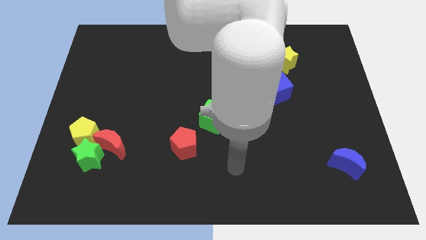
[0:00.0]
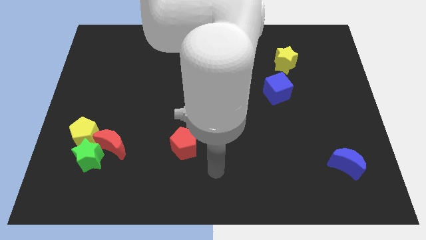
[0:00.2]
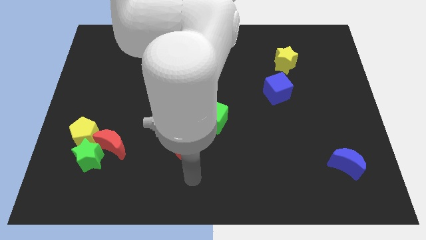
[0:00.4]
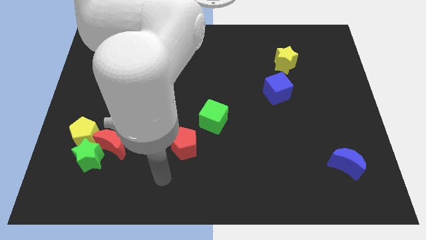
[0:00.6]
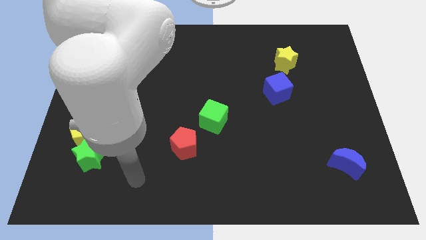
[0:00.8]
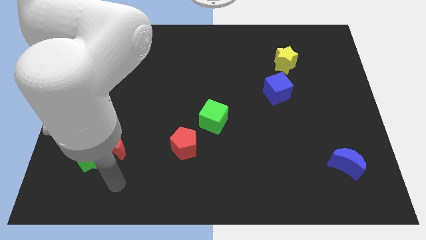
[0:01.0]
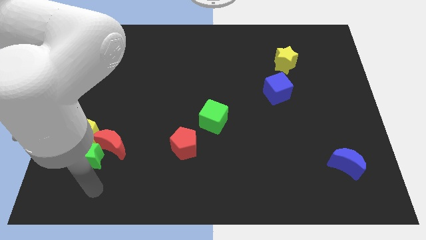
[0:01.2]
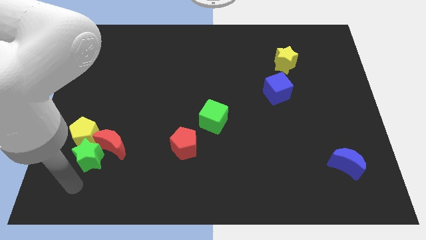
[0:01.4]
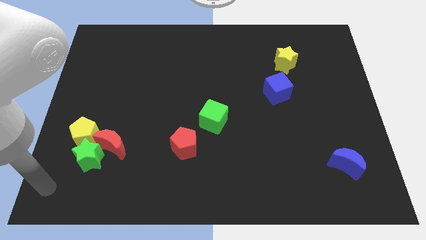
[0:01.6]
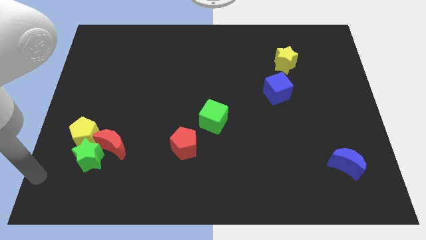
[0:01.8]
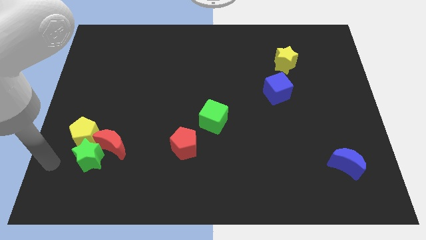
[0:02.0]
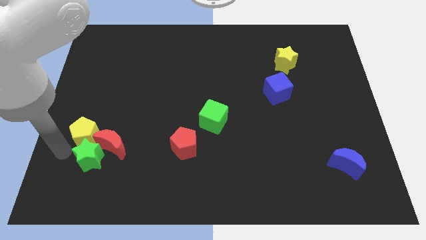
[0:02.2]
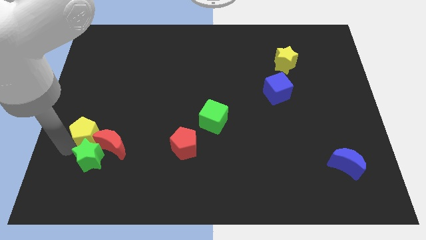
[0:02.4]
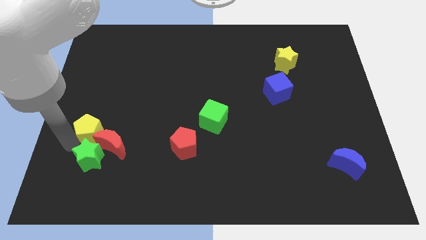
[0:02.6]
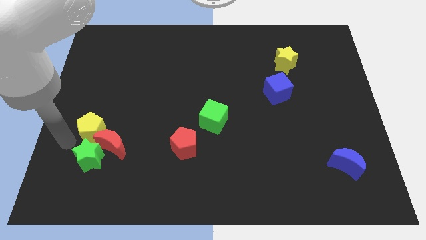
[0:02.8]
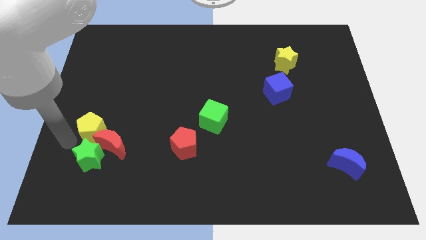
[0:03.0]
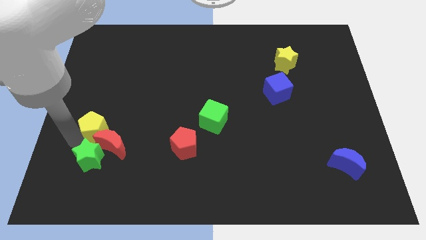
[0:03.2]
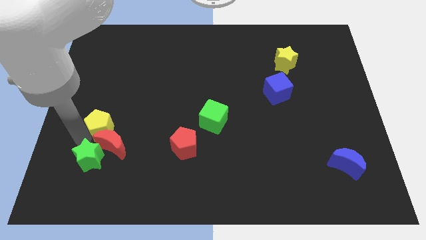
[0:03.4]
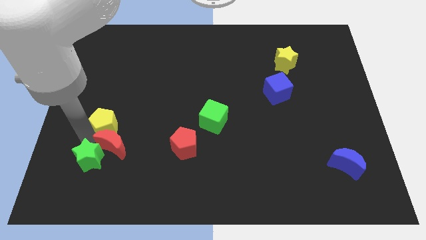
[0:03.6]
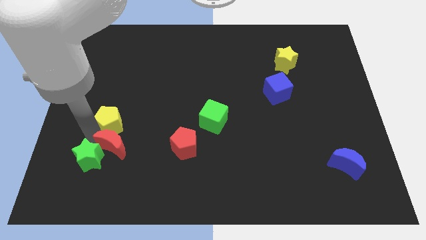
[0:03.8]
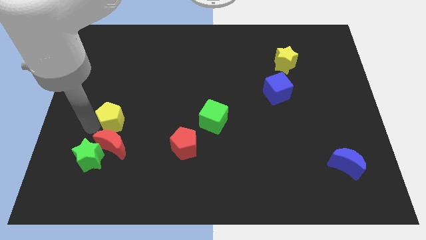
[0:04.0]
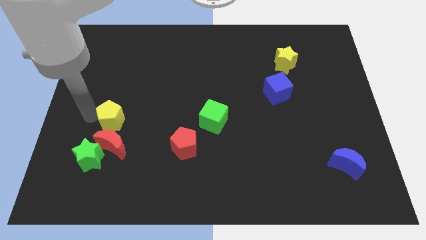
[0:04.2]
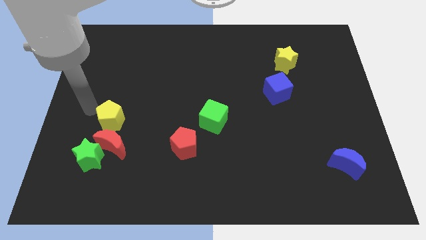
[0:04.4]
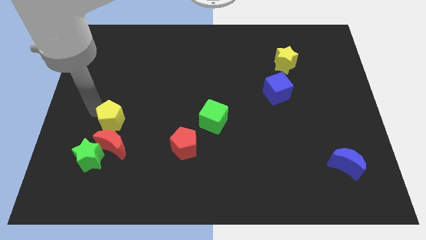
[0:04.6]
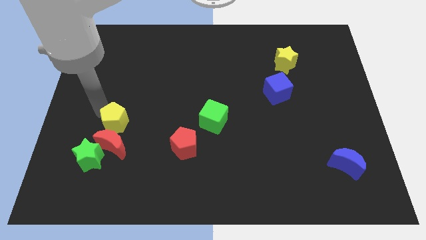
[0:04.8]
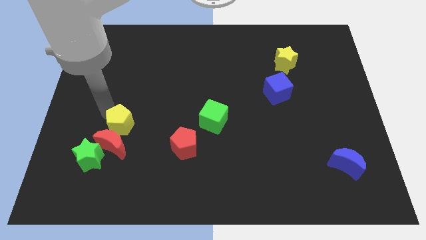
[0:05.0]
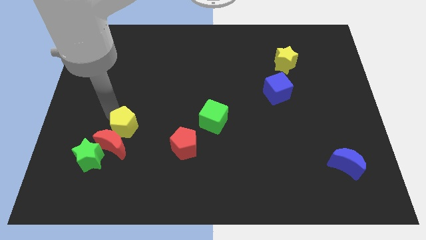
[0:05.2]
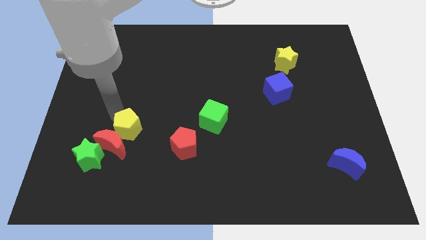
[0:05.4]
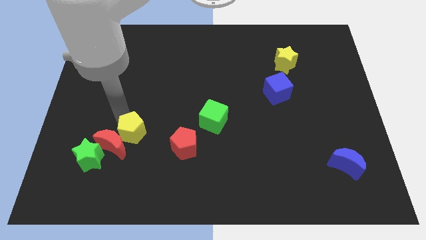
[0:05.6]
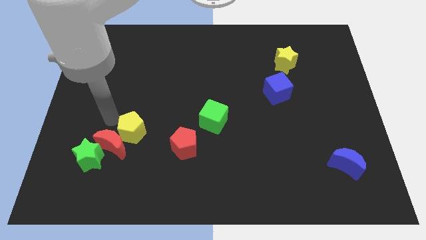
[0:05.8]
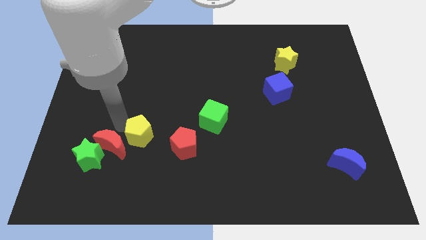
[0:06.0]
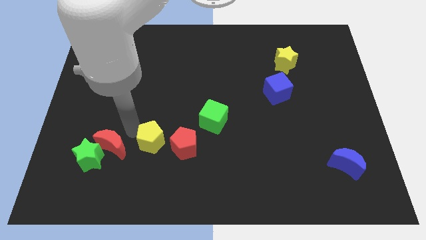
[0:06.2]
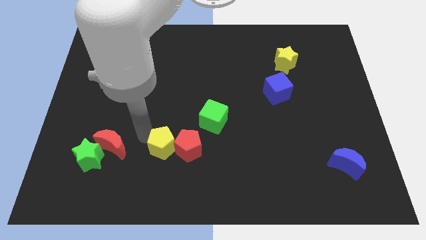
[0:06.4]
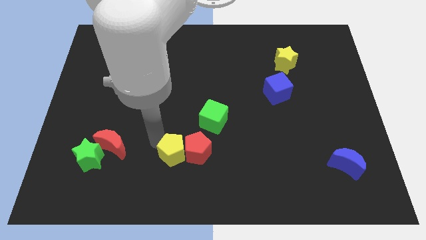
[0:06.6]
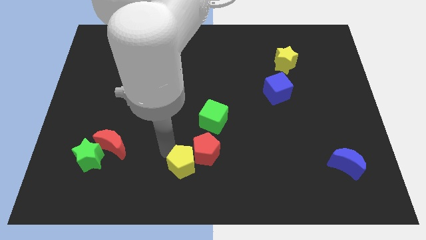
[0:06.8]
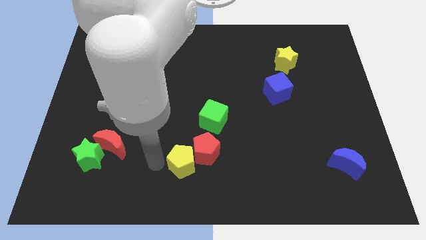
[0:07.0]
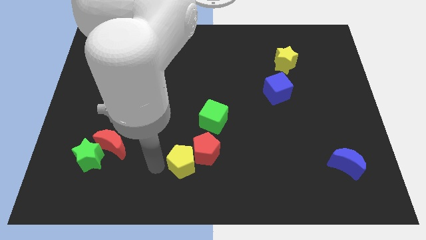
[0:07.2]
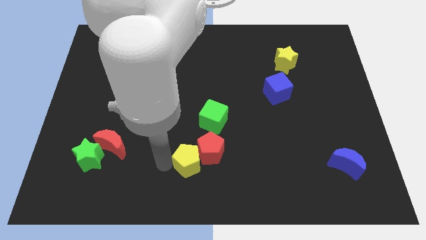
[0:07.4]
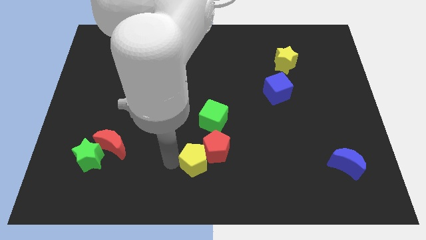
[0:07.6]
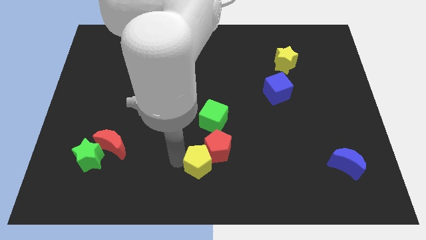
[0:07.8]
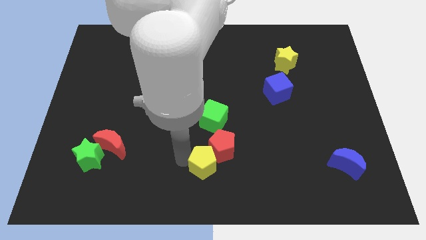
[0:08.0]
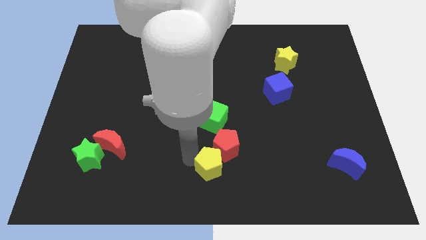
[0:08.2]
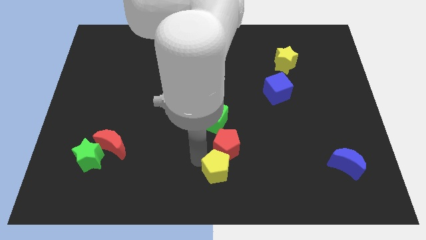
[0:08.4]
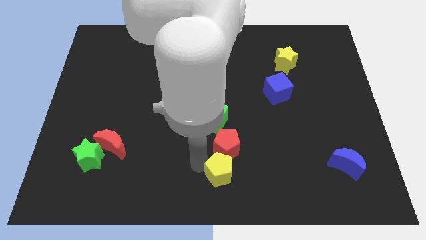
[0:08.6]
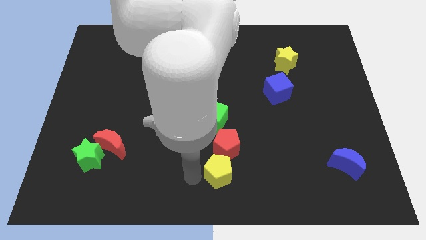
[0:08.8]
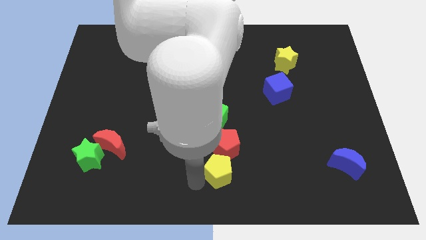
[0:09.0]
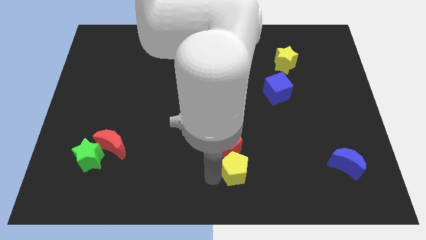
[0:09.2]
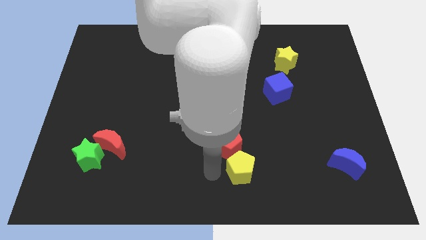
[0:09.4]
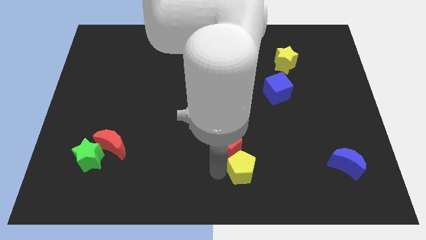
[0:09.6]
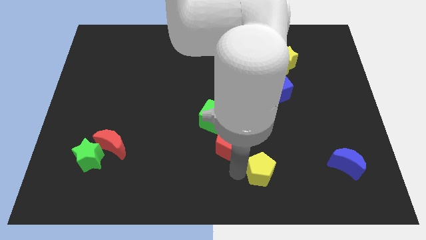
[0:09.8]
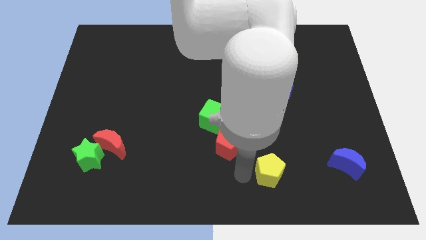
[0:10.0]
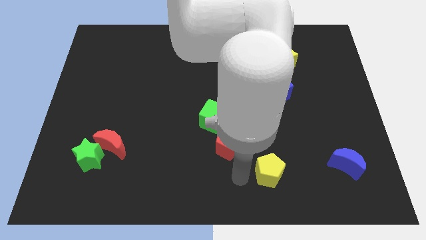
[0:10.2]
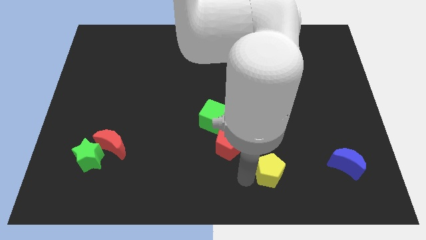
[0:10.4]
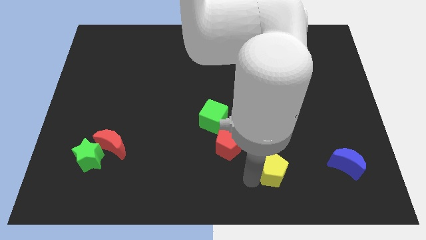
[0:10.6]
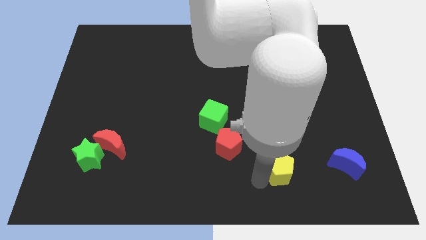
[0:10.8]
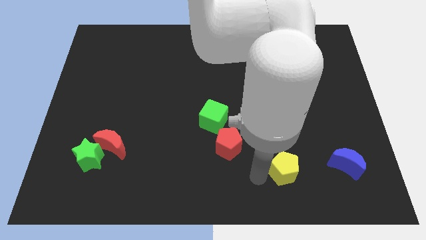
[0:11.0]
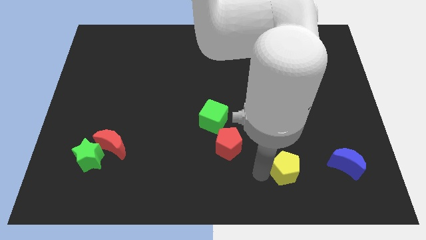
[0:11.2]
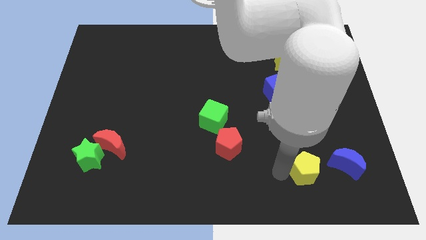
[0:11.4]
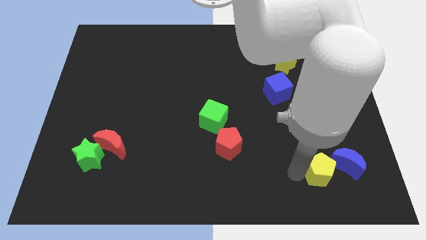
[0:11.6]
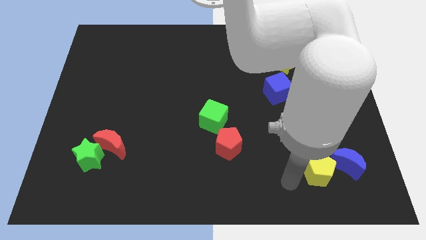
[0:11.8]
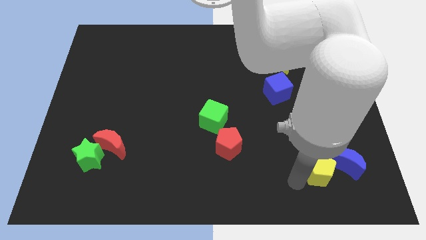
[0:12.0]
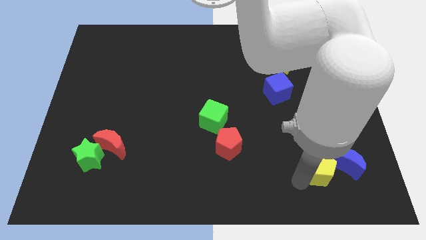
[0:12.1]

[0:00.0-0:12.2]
move the yellow pentagon close to the blue moon

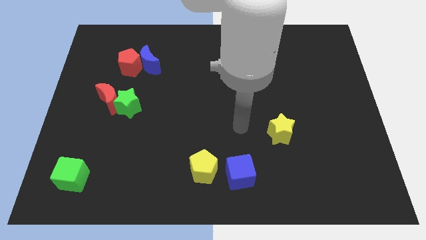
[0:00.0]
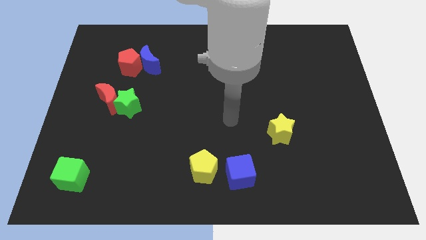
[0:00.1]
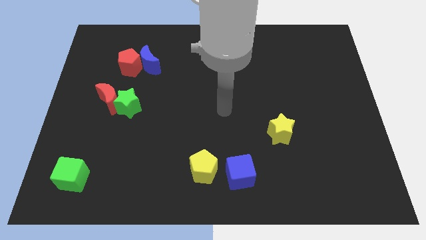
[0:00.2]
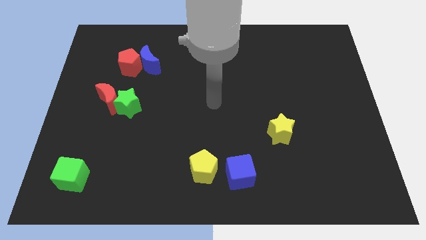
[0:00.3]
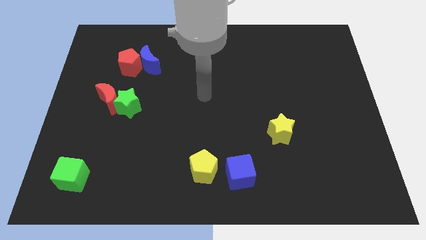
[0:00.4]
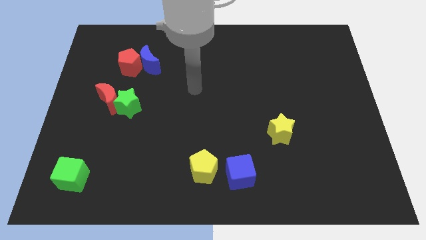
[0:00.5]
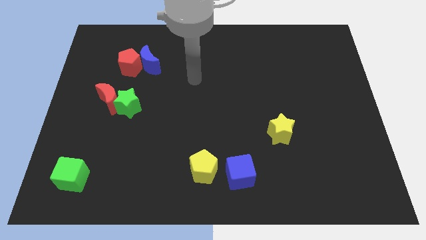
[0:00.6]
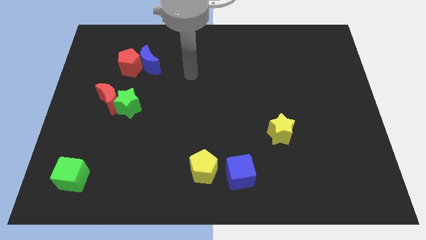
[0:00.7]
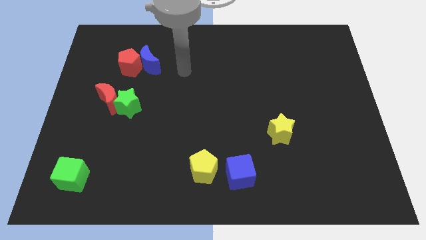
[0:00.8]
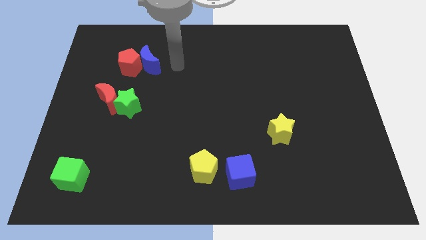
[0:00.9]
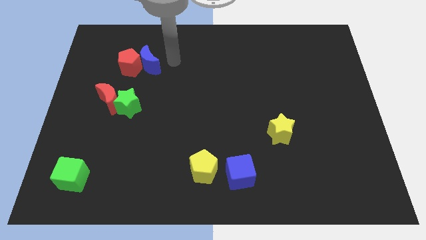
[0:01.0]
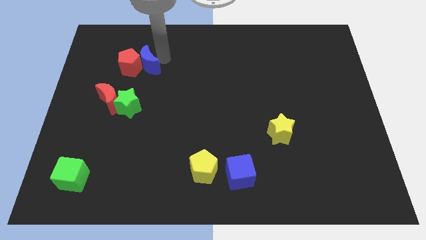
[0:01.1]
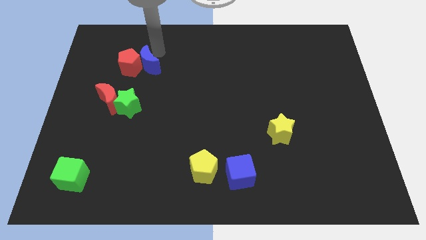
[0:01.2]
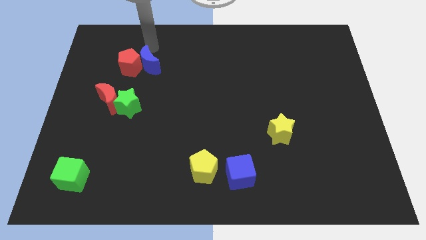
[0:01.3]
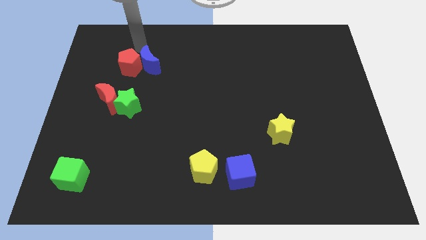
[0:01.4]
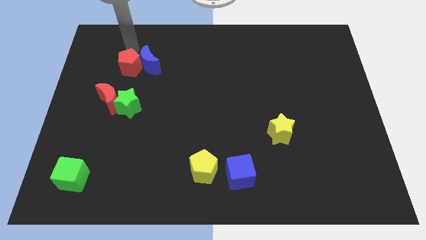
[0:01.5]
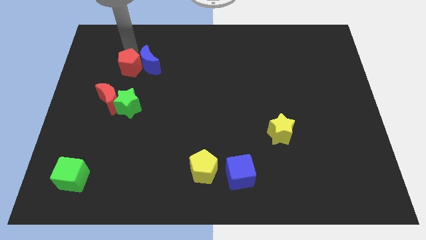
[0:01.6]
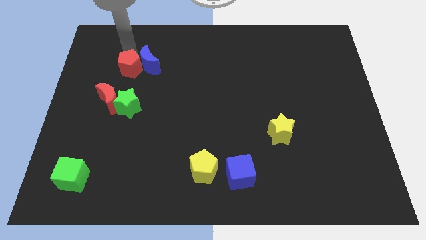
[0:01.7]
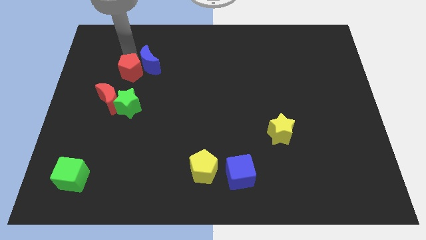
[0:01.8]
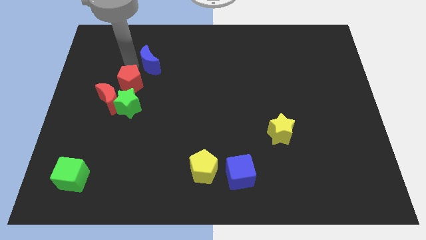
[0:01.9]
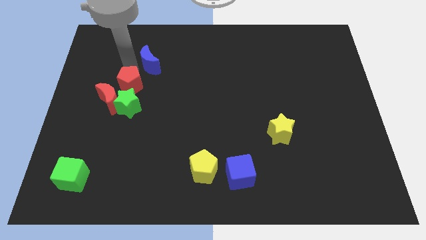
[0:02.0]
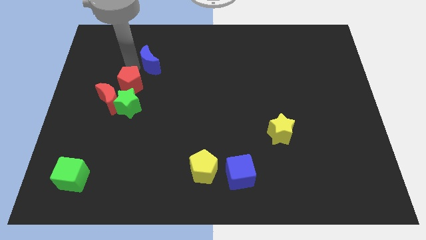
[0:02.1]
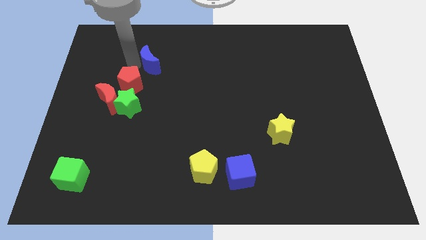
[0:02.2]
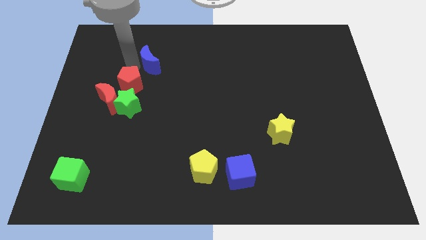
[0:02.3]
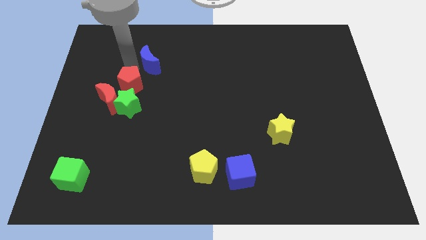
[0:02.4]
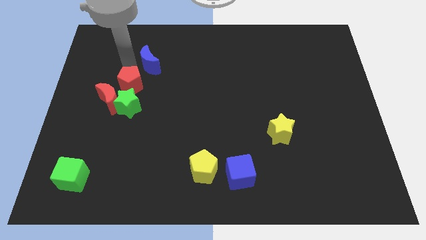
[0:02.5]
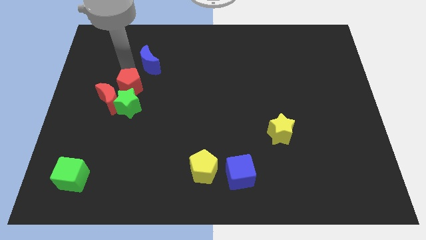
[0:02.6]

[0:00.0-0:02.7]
push the red pentagon to the green star
